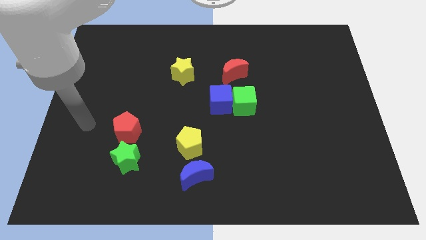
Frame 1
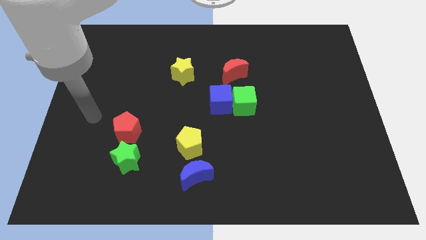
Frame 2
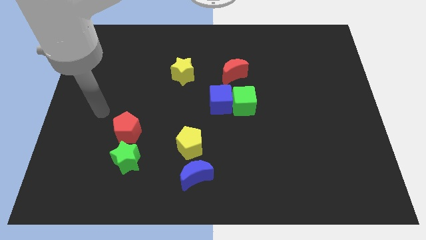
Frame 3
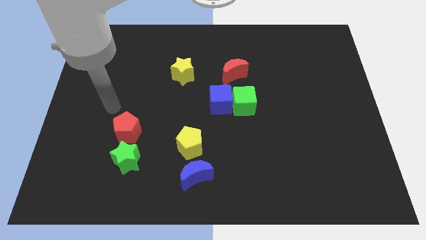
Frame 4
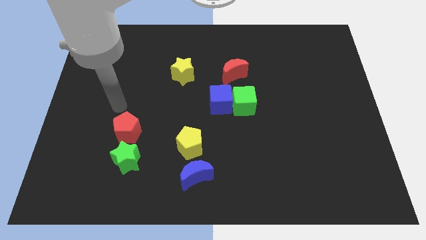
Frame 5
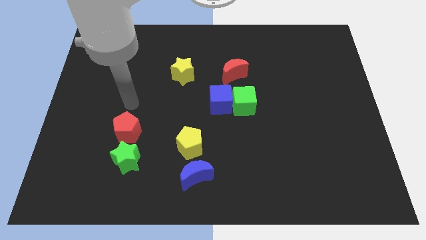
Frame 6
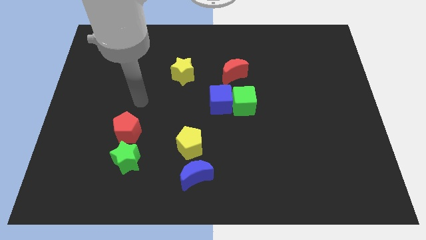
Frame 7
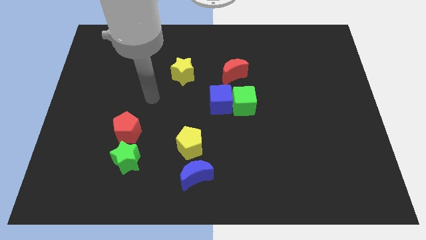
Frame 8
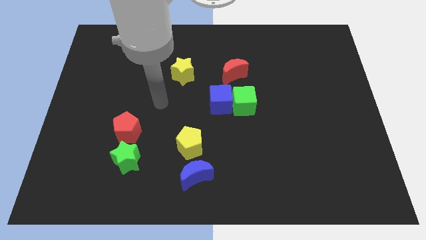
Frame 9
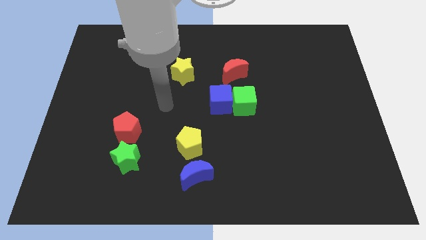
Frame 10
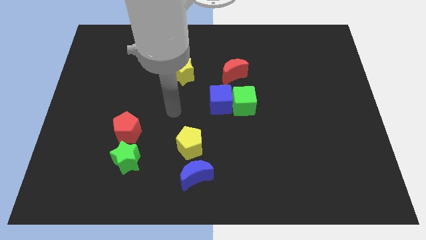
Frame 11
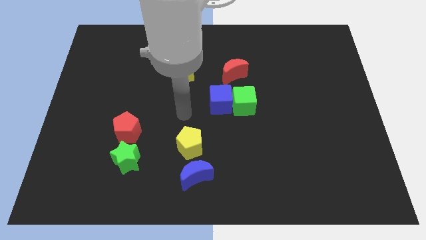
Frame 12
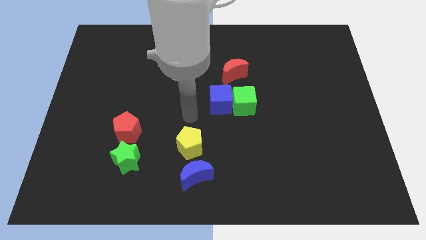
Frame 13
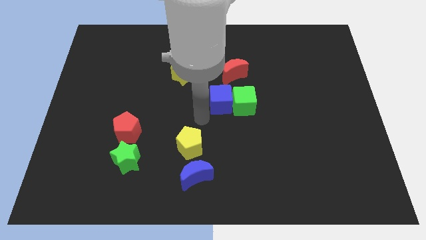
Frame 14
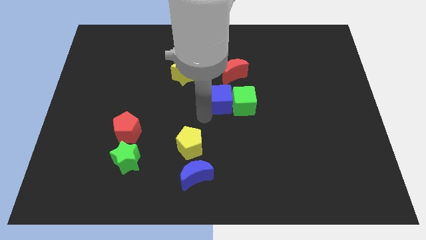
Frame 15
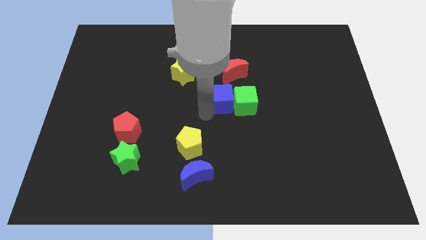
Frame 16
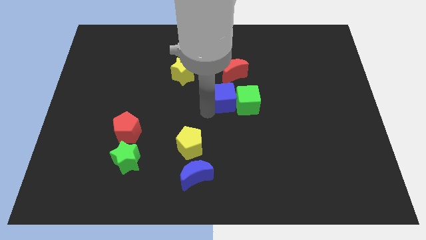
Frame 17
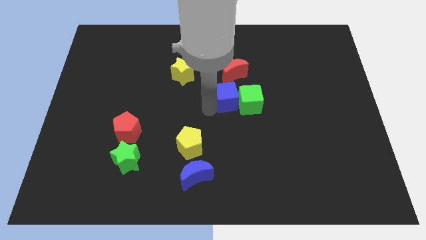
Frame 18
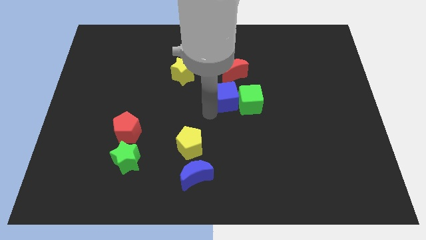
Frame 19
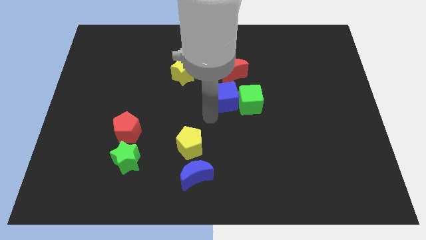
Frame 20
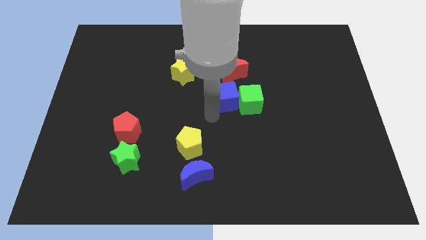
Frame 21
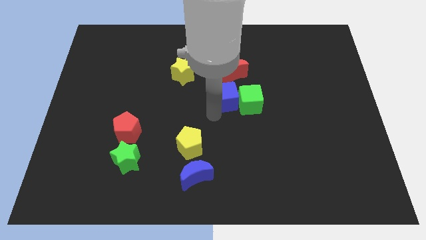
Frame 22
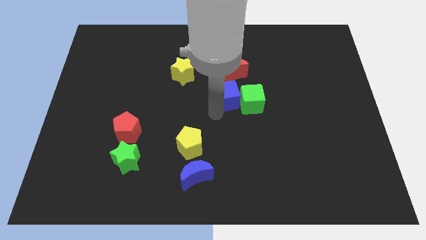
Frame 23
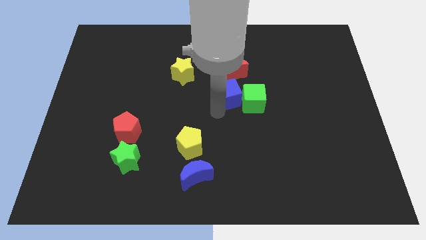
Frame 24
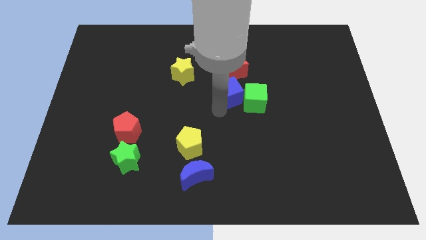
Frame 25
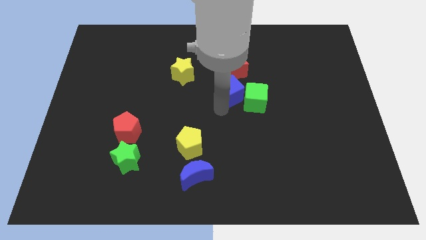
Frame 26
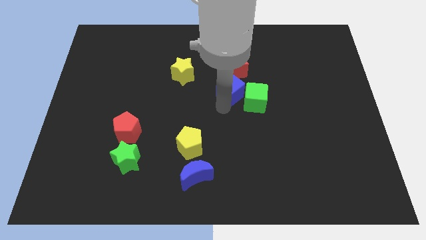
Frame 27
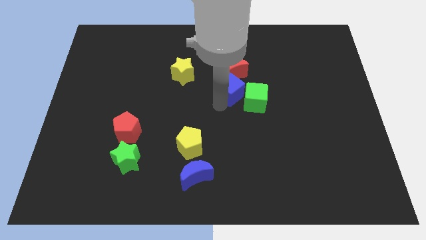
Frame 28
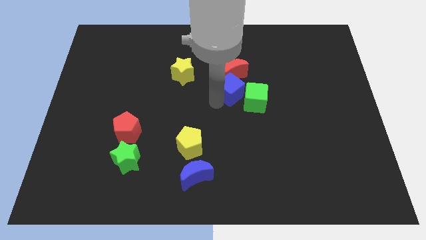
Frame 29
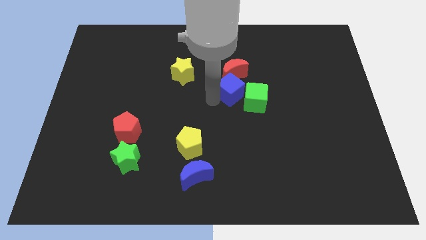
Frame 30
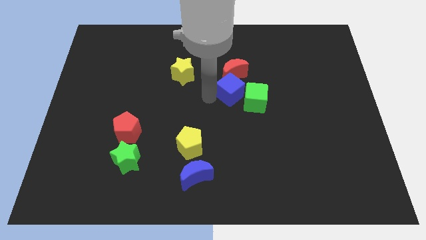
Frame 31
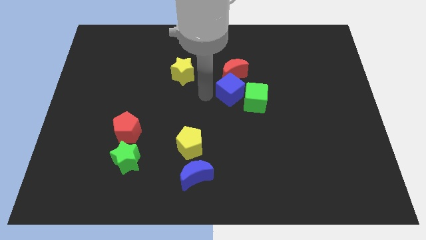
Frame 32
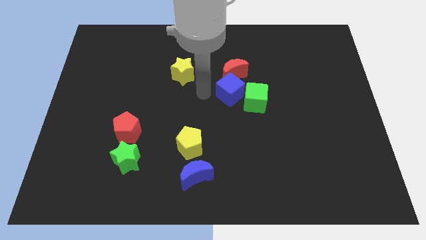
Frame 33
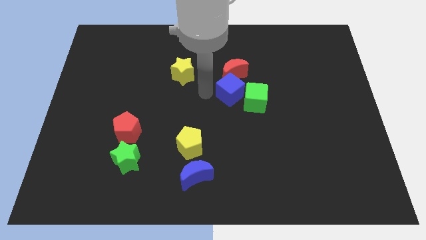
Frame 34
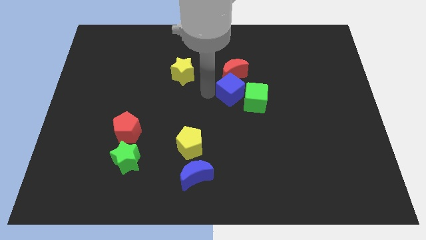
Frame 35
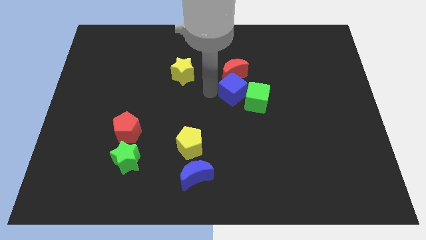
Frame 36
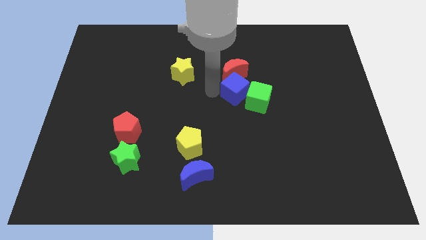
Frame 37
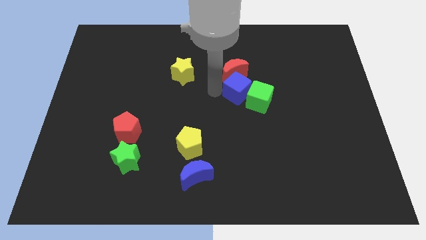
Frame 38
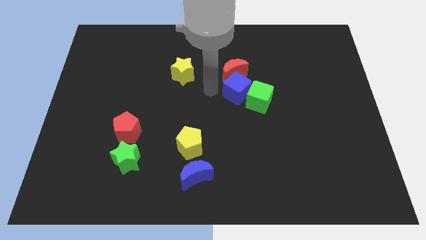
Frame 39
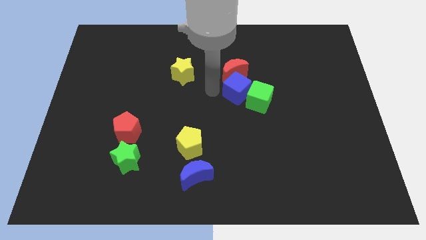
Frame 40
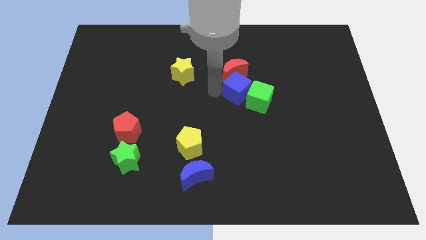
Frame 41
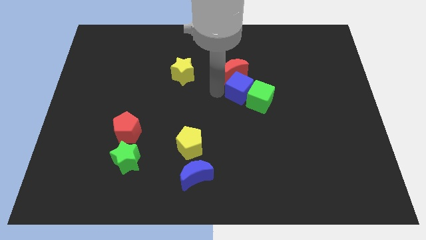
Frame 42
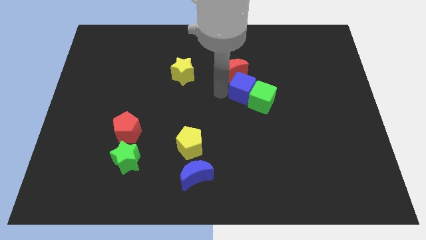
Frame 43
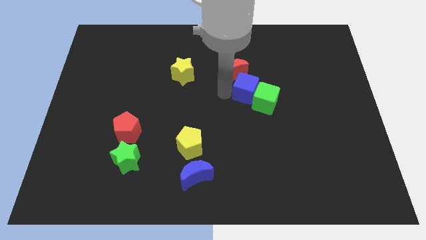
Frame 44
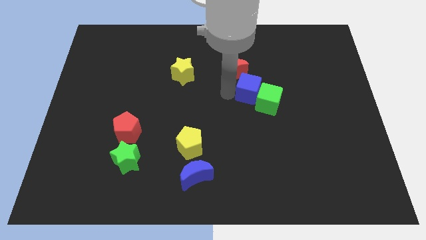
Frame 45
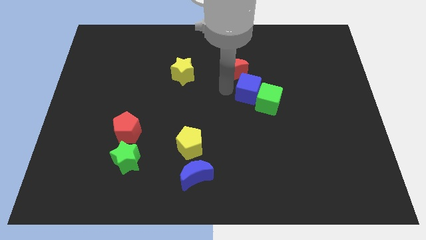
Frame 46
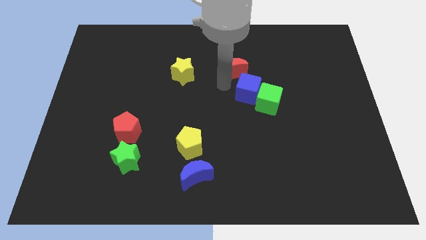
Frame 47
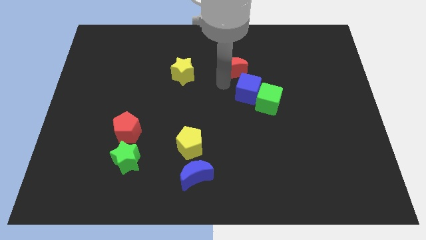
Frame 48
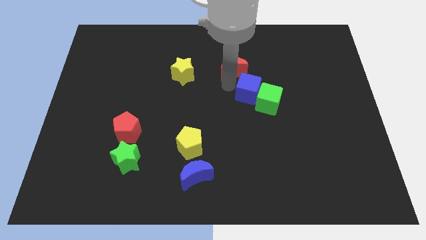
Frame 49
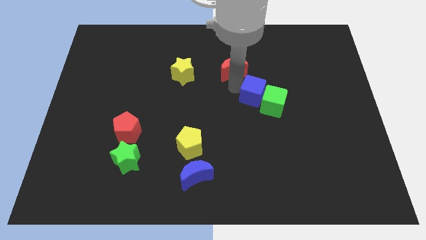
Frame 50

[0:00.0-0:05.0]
move the blue cube to the right a little bit

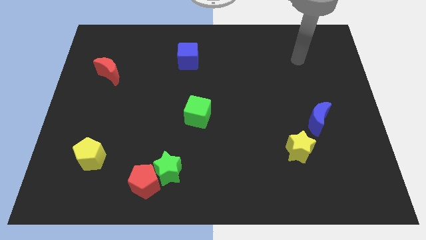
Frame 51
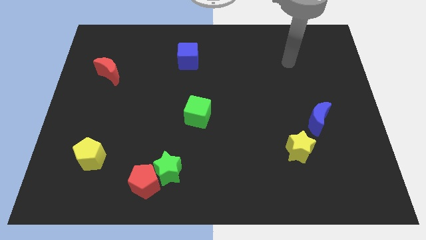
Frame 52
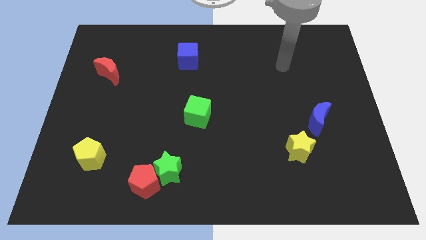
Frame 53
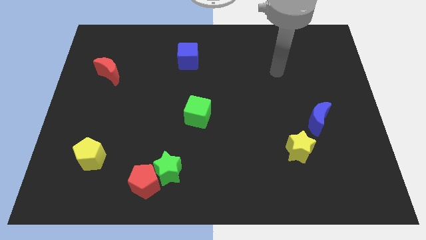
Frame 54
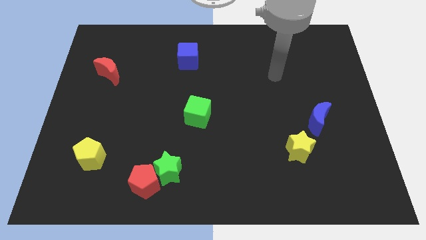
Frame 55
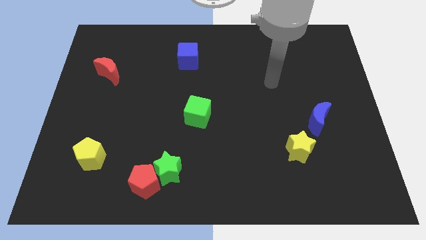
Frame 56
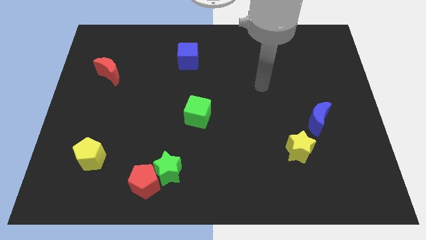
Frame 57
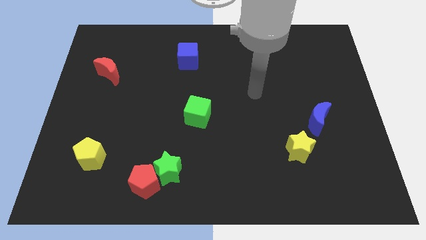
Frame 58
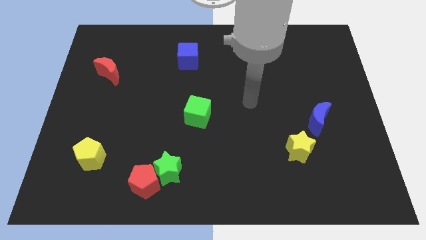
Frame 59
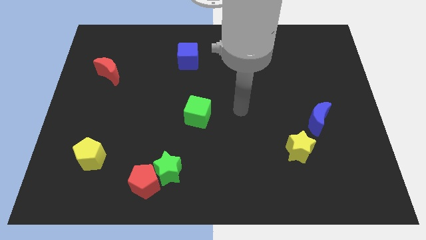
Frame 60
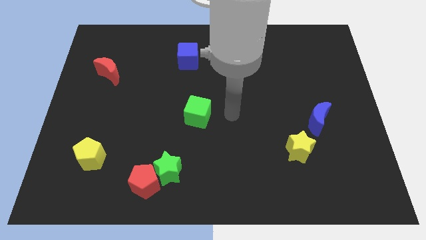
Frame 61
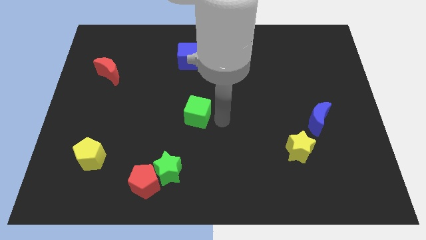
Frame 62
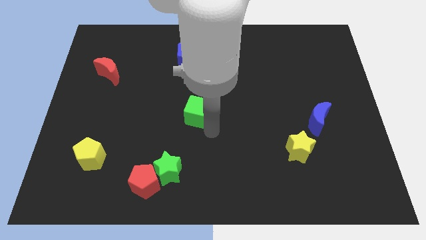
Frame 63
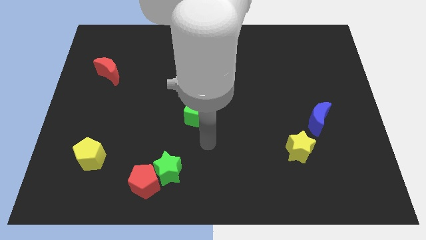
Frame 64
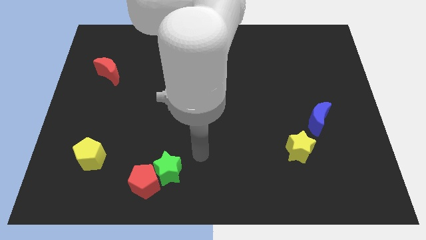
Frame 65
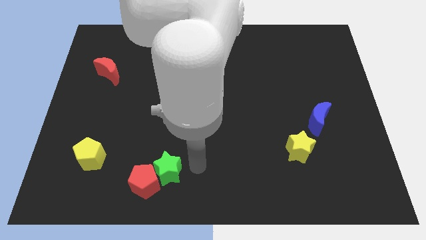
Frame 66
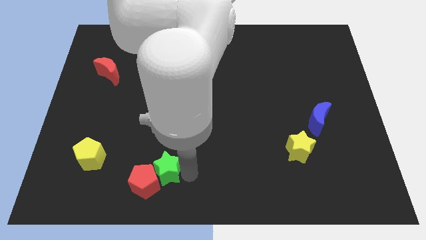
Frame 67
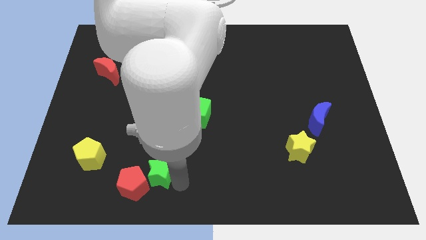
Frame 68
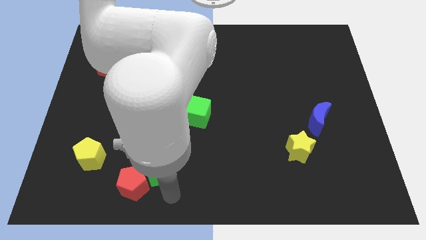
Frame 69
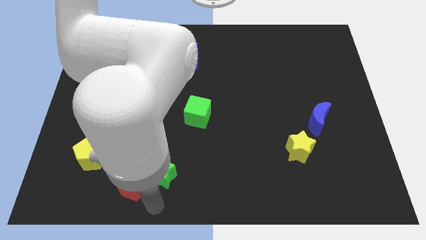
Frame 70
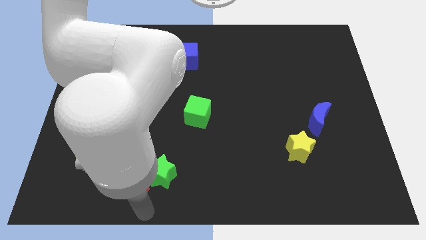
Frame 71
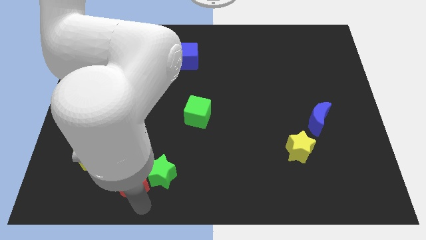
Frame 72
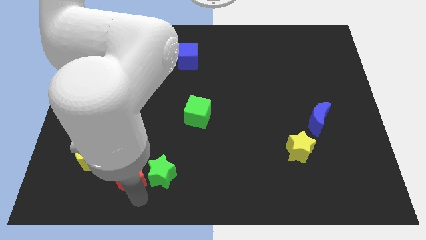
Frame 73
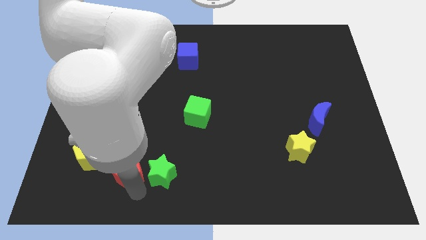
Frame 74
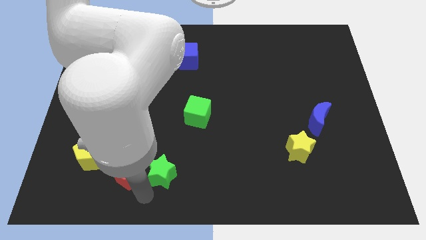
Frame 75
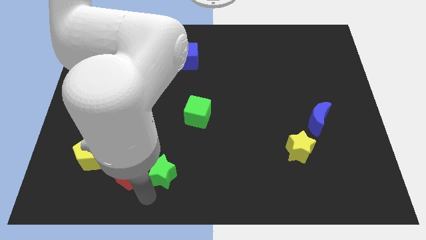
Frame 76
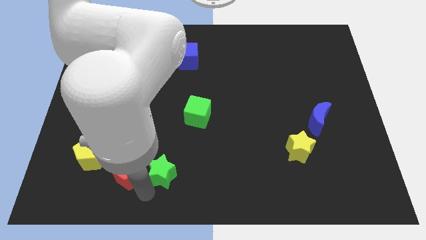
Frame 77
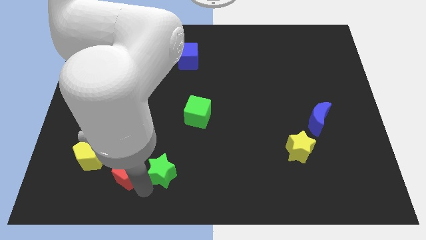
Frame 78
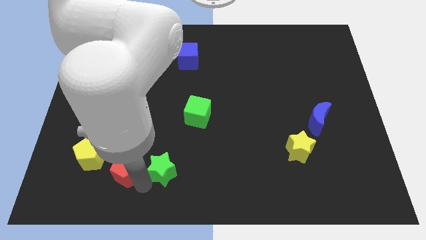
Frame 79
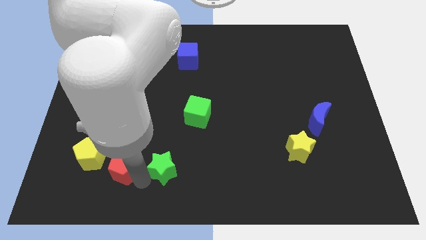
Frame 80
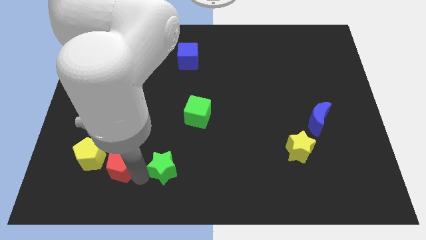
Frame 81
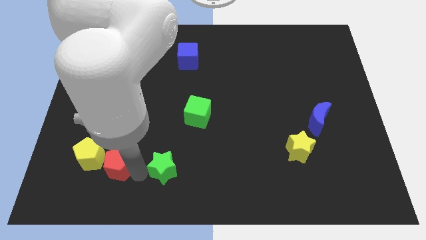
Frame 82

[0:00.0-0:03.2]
slightly push the red pentagon up and then left

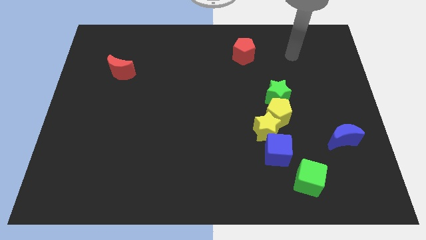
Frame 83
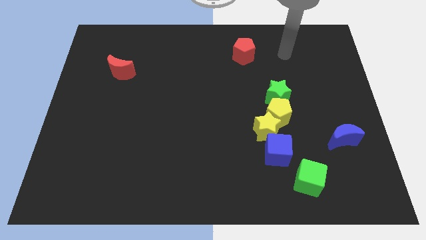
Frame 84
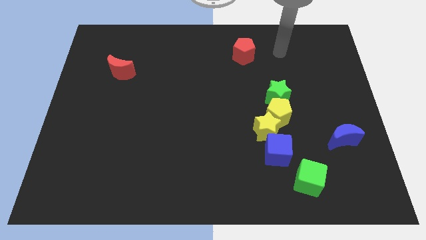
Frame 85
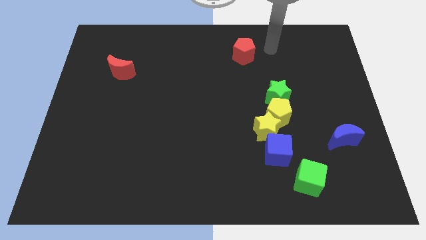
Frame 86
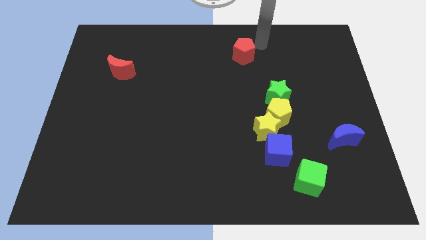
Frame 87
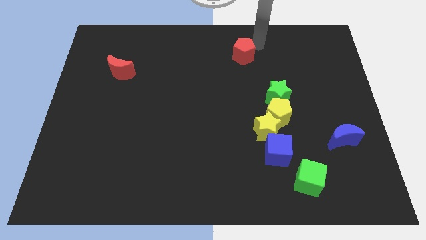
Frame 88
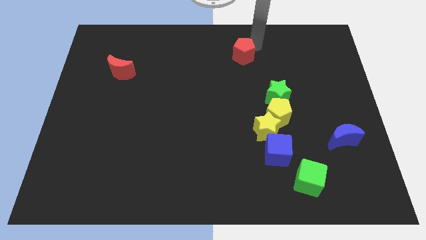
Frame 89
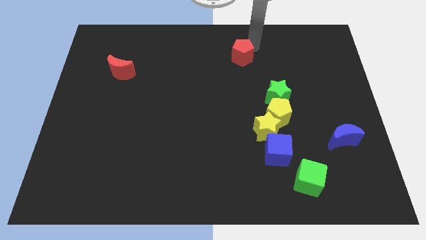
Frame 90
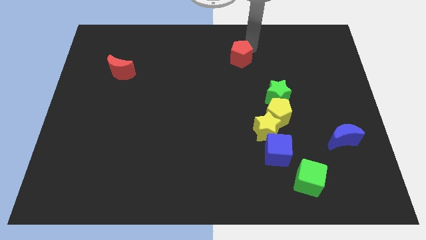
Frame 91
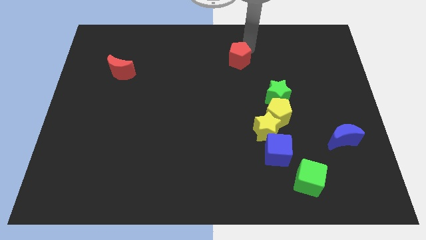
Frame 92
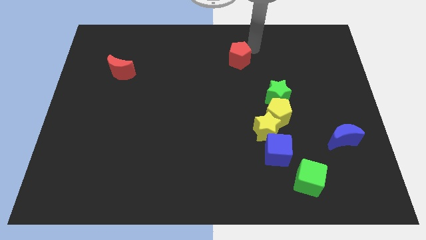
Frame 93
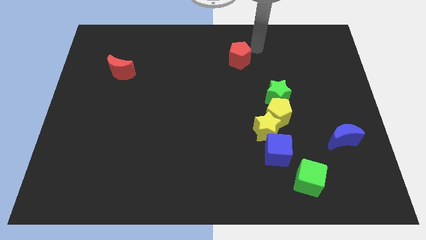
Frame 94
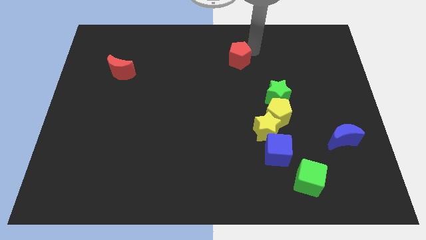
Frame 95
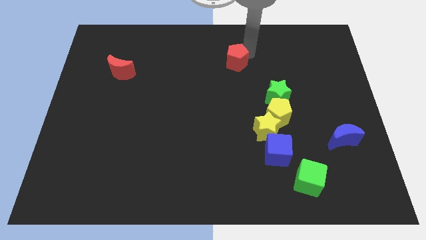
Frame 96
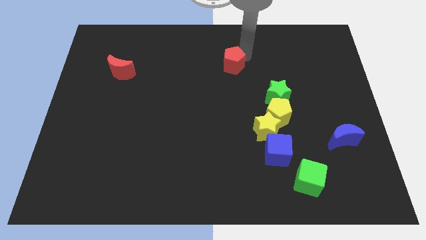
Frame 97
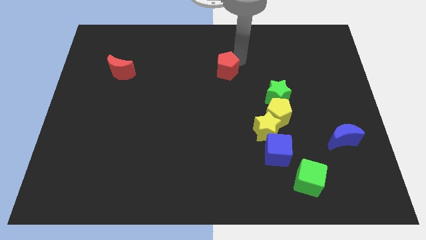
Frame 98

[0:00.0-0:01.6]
slightly move the red pentagon downwards and left diagonally
